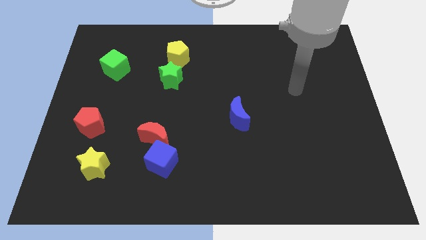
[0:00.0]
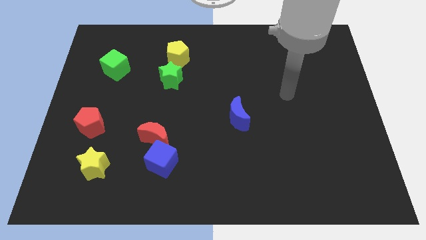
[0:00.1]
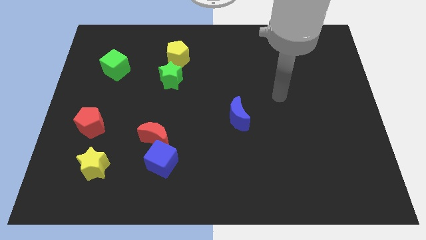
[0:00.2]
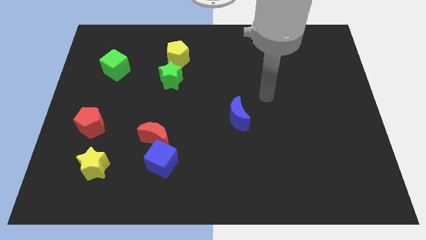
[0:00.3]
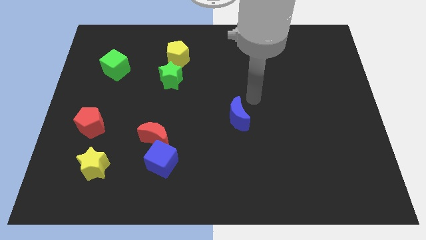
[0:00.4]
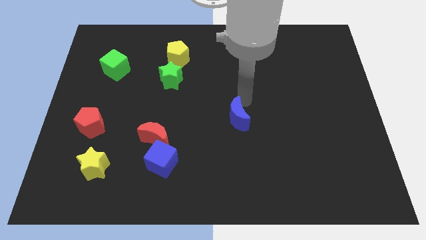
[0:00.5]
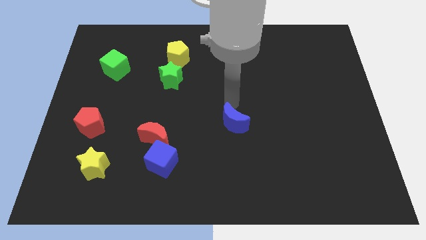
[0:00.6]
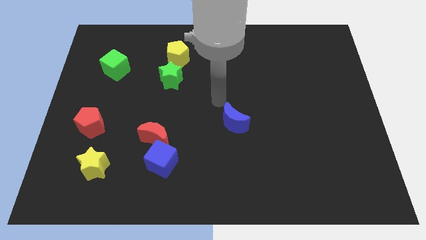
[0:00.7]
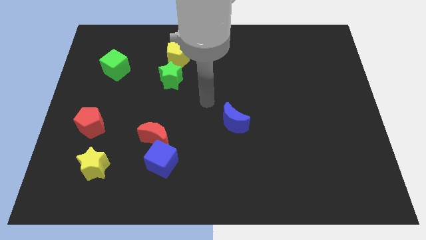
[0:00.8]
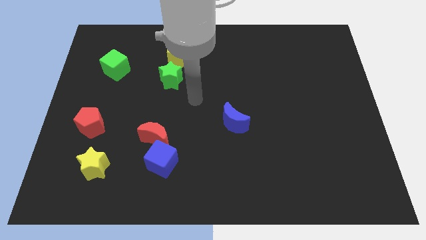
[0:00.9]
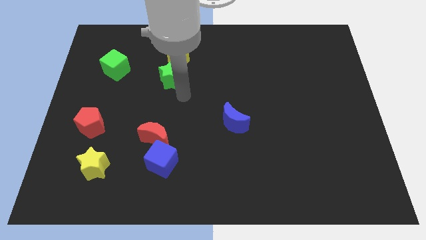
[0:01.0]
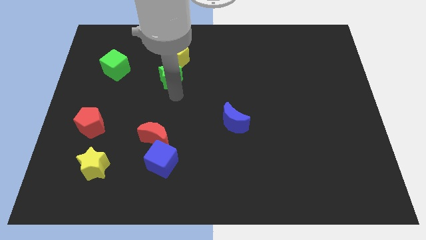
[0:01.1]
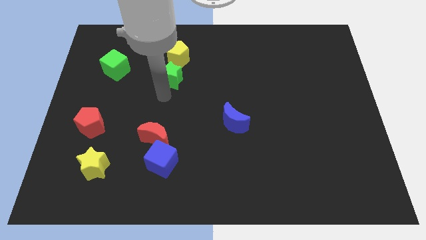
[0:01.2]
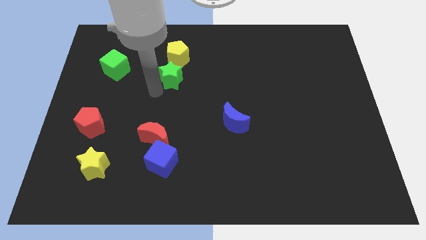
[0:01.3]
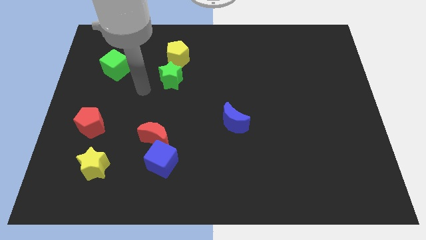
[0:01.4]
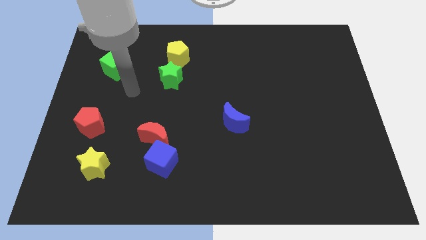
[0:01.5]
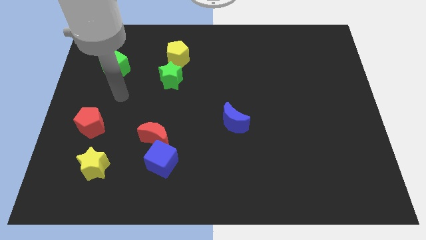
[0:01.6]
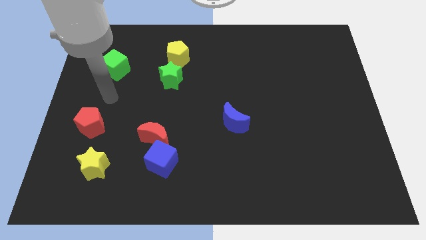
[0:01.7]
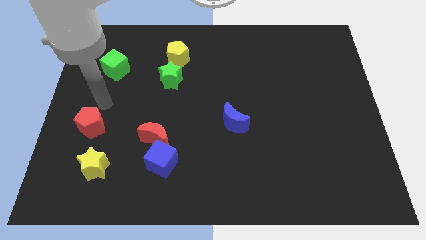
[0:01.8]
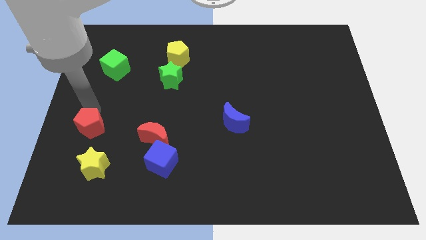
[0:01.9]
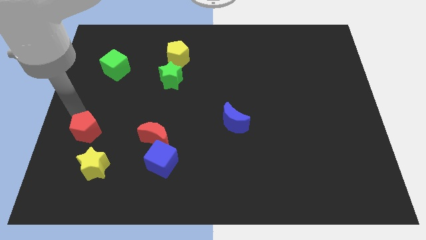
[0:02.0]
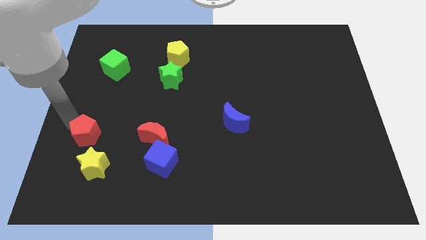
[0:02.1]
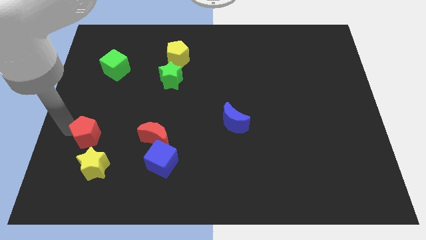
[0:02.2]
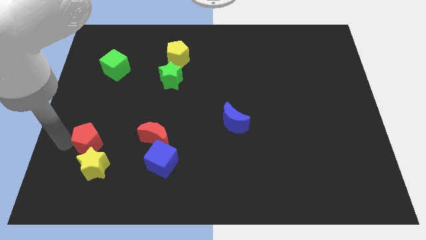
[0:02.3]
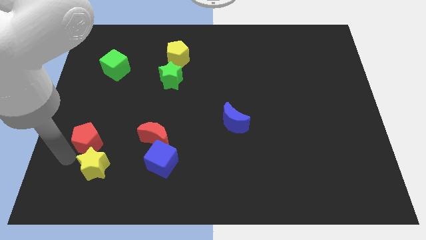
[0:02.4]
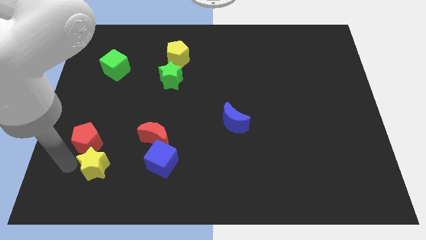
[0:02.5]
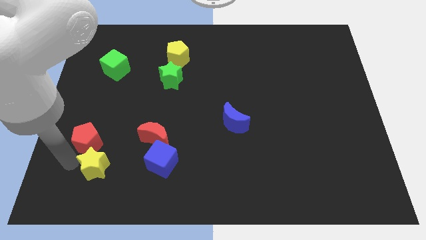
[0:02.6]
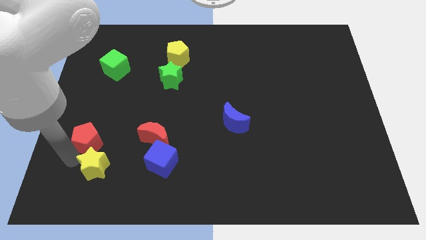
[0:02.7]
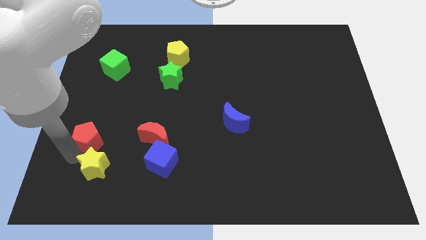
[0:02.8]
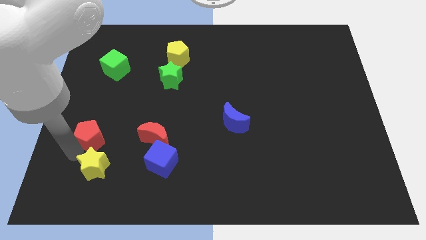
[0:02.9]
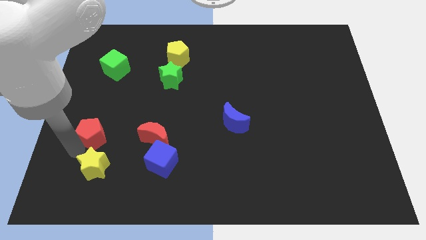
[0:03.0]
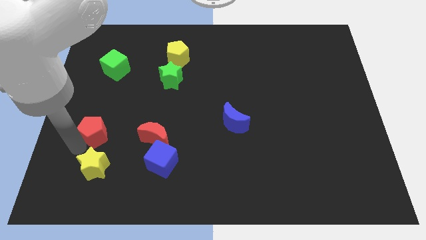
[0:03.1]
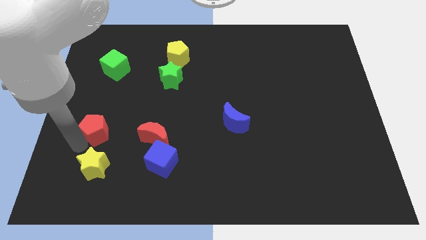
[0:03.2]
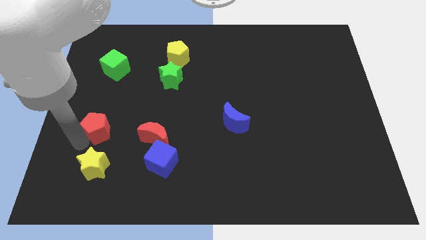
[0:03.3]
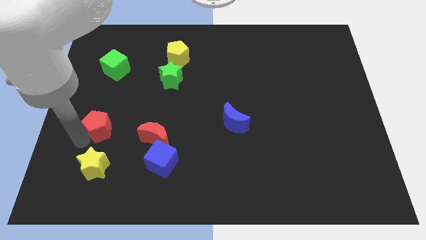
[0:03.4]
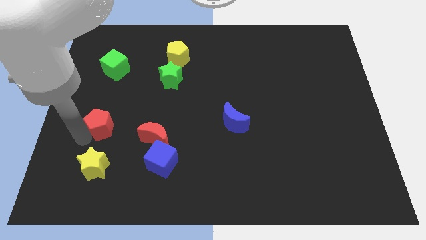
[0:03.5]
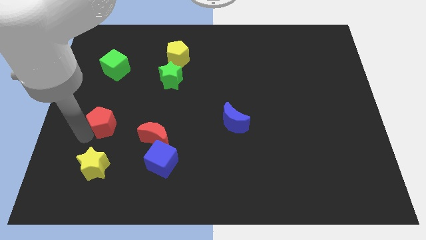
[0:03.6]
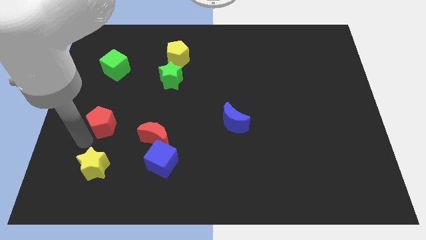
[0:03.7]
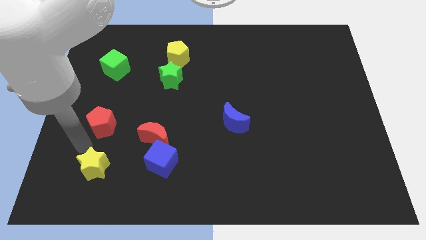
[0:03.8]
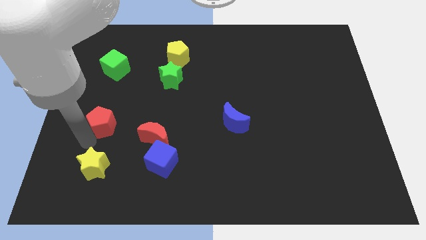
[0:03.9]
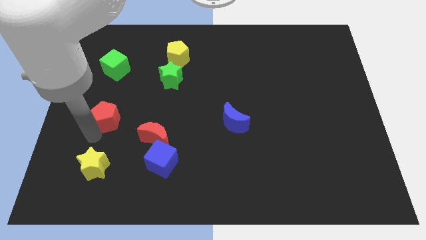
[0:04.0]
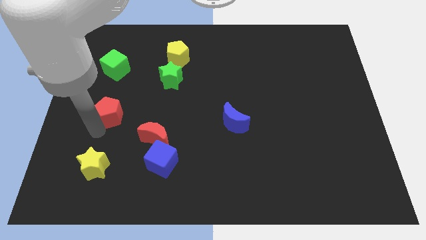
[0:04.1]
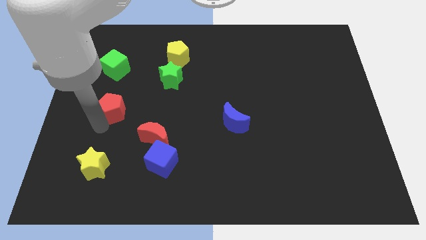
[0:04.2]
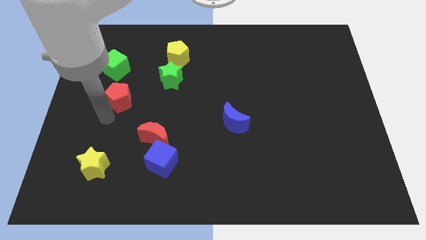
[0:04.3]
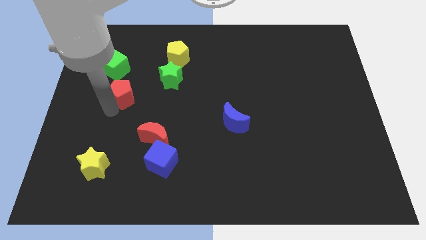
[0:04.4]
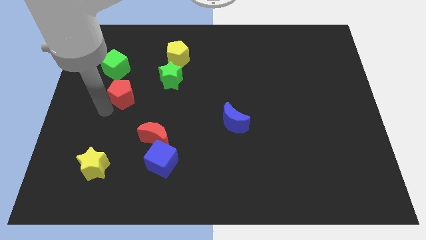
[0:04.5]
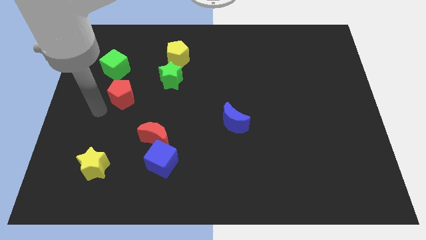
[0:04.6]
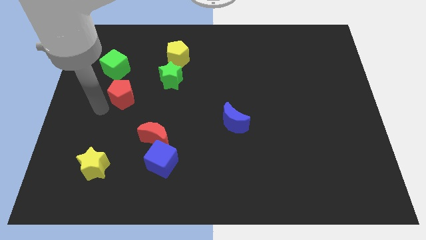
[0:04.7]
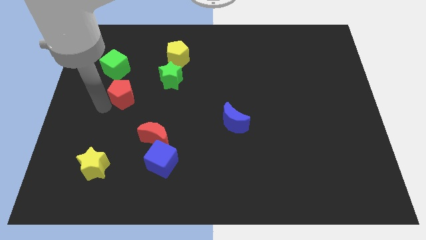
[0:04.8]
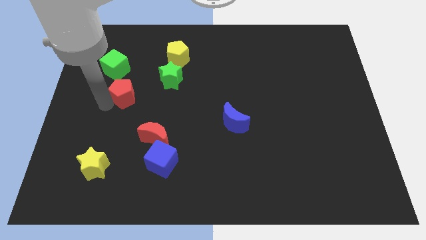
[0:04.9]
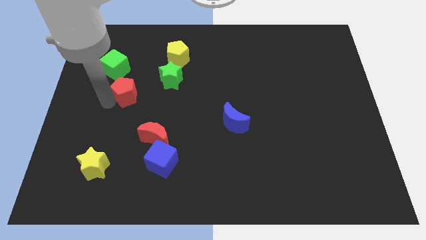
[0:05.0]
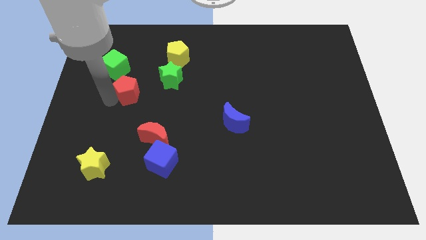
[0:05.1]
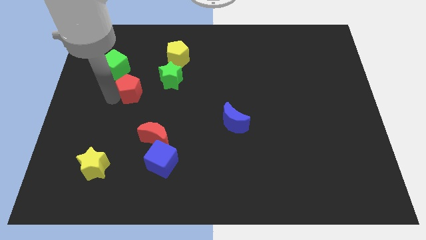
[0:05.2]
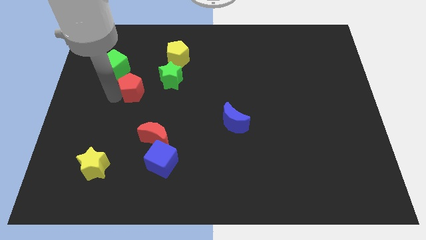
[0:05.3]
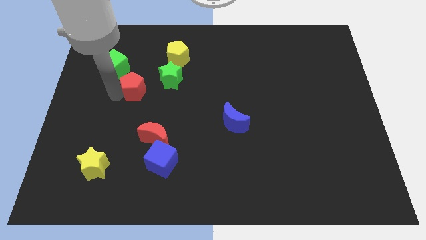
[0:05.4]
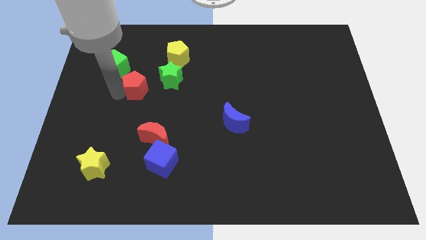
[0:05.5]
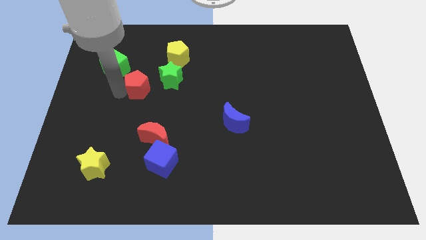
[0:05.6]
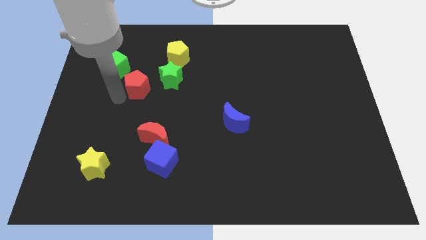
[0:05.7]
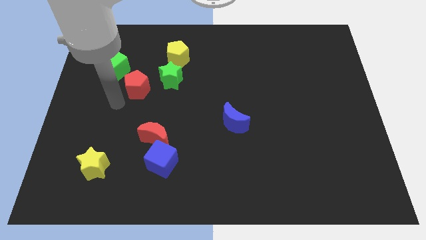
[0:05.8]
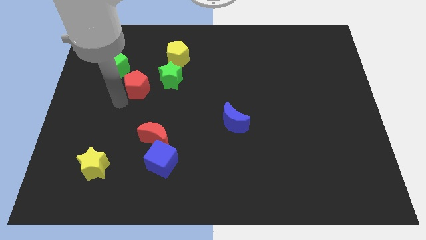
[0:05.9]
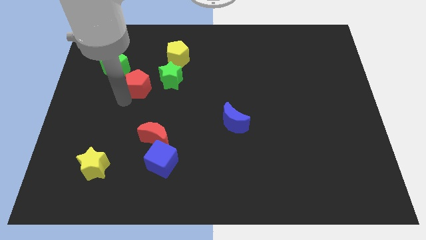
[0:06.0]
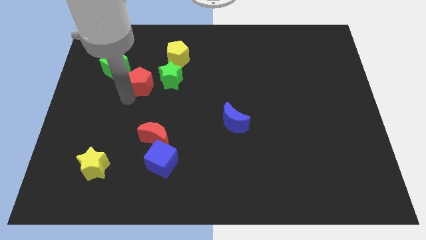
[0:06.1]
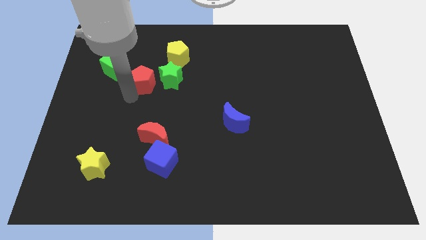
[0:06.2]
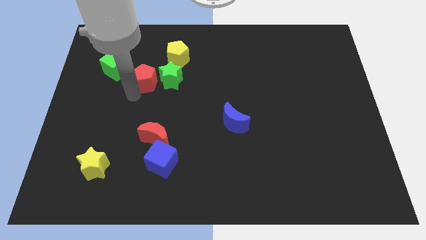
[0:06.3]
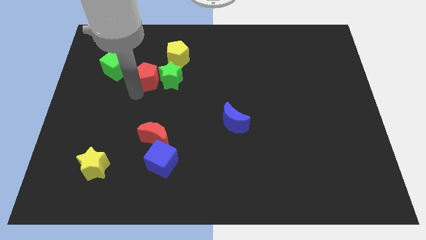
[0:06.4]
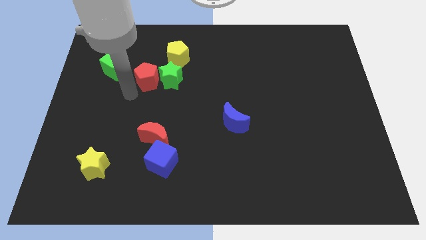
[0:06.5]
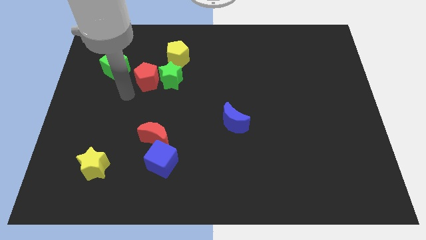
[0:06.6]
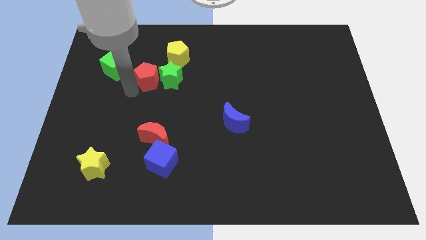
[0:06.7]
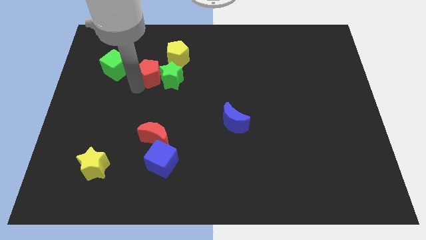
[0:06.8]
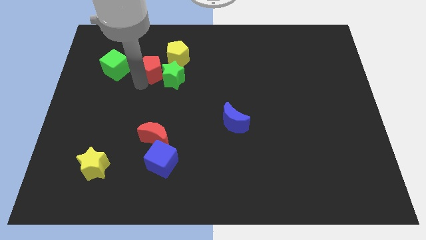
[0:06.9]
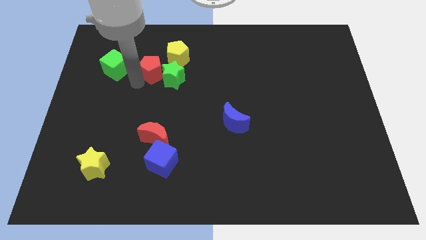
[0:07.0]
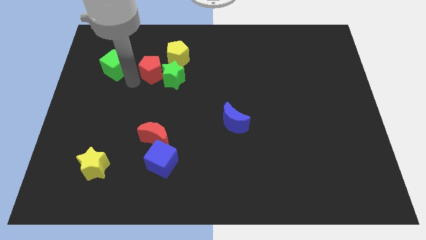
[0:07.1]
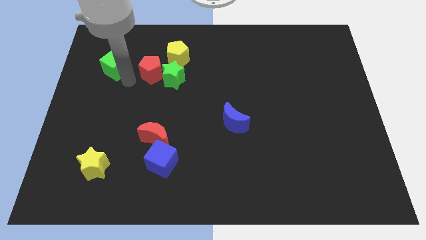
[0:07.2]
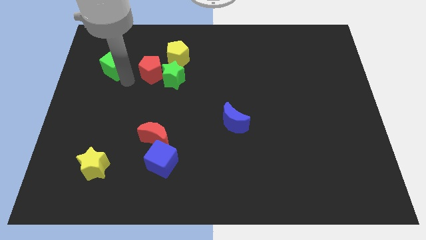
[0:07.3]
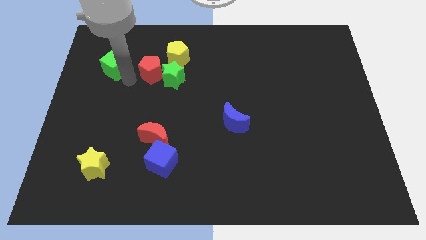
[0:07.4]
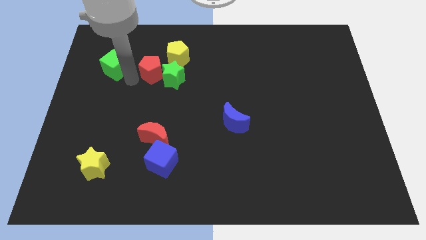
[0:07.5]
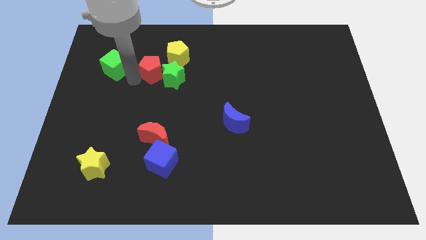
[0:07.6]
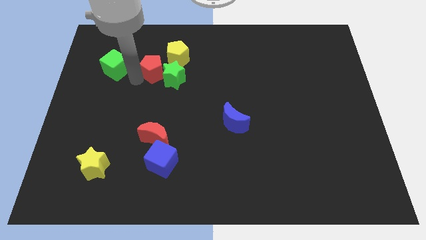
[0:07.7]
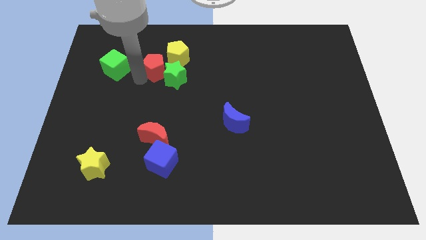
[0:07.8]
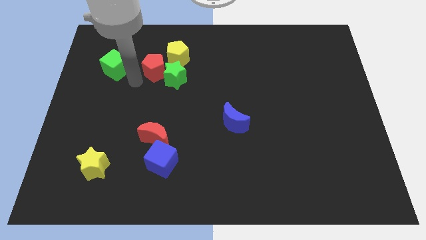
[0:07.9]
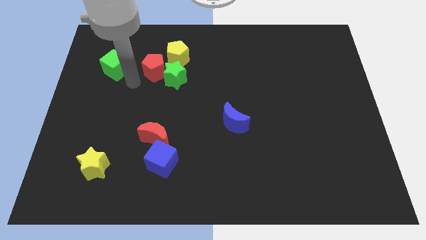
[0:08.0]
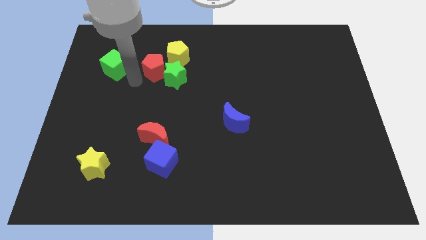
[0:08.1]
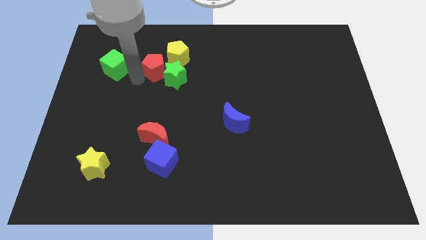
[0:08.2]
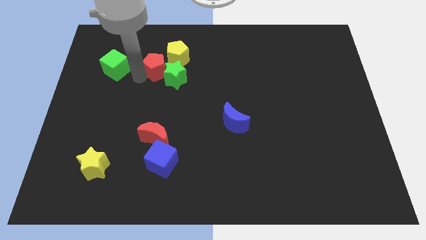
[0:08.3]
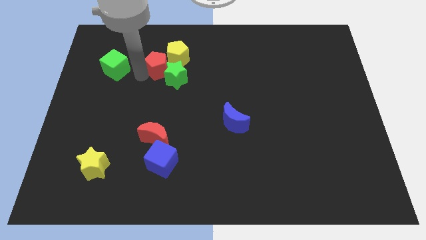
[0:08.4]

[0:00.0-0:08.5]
put the red pentagon to the yellow pentagon
